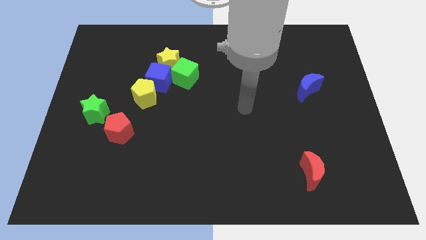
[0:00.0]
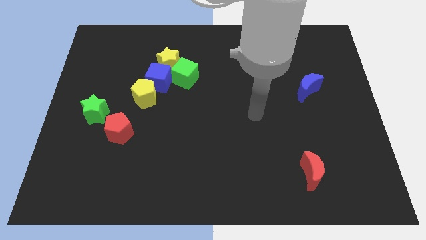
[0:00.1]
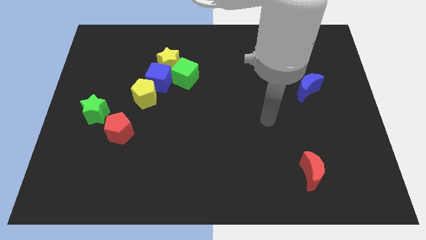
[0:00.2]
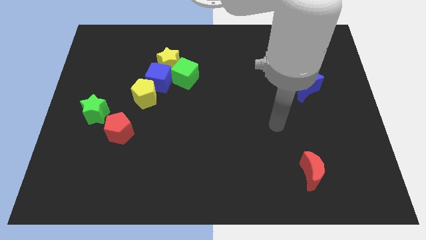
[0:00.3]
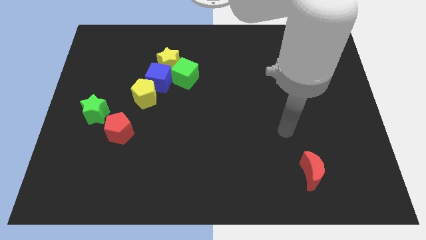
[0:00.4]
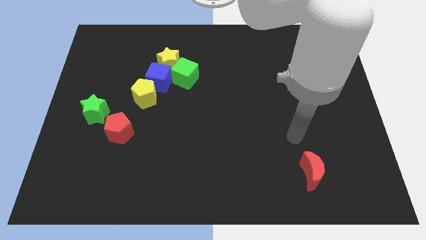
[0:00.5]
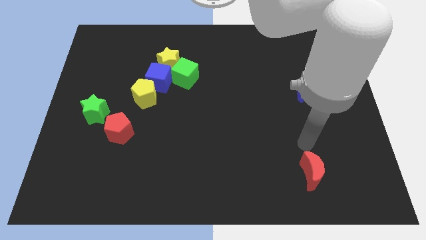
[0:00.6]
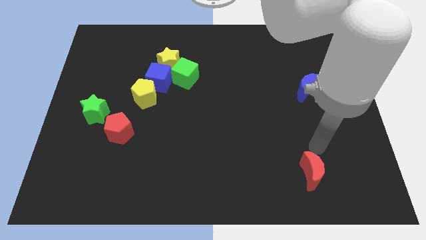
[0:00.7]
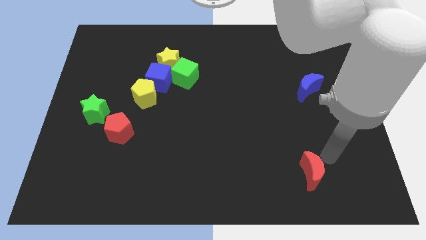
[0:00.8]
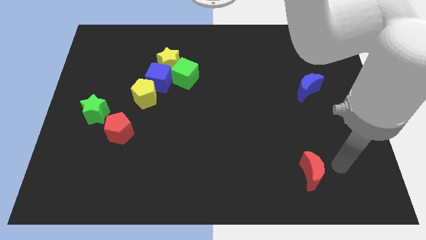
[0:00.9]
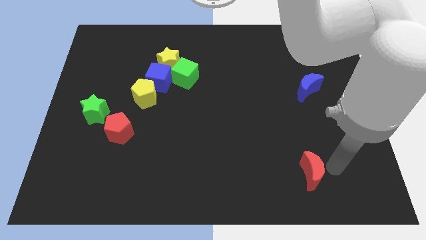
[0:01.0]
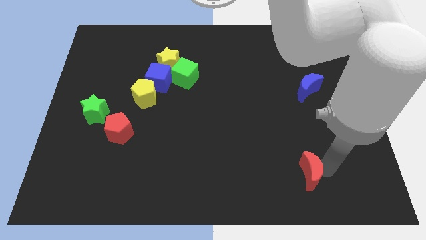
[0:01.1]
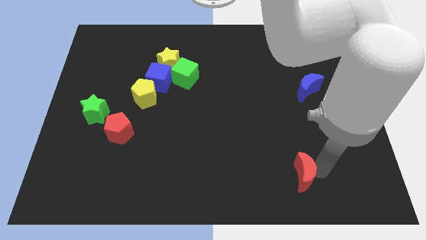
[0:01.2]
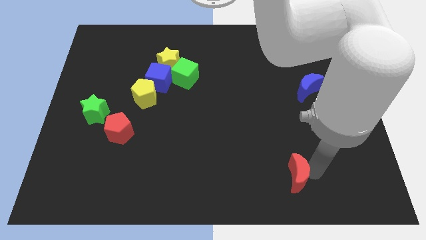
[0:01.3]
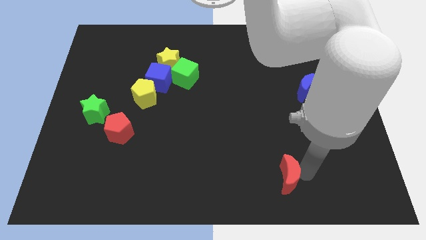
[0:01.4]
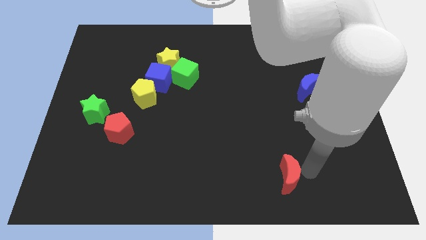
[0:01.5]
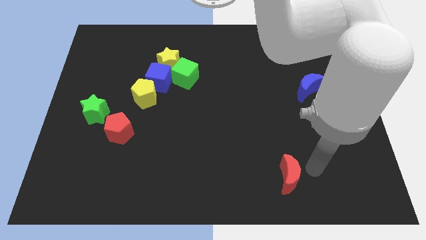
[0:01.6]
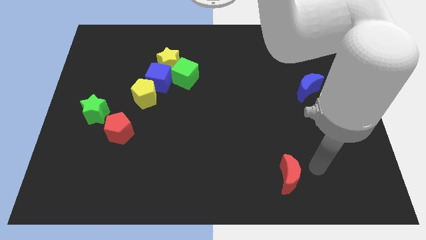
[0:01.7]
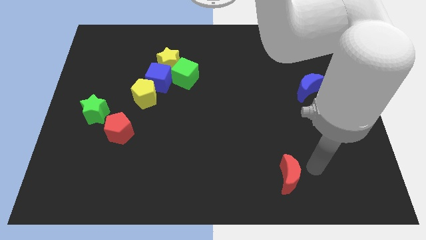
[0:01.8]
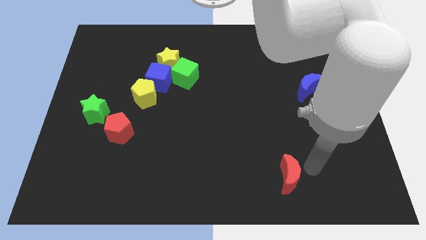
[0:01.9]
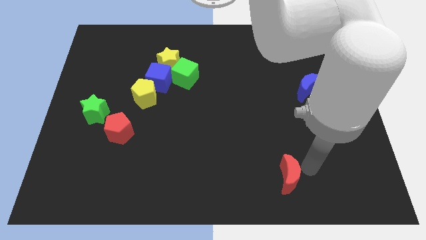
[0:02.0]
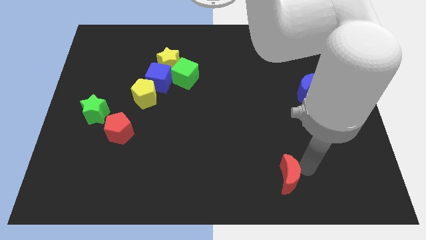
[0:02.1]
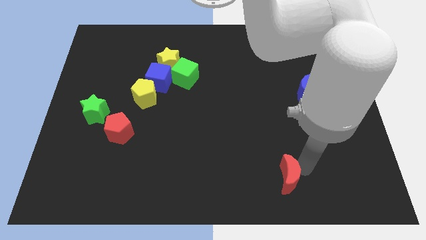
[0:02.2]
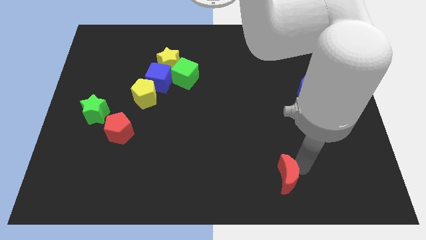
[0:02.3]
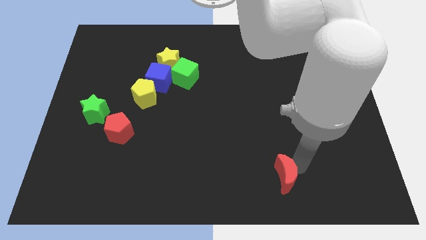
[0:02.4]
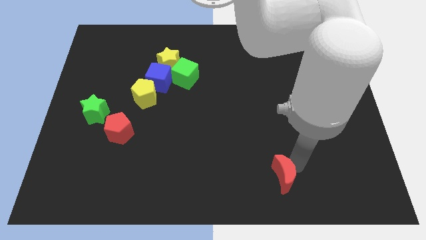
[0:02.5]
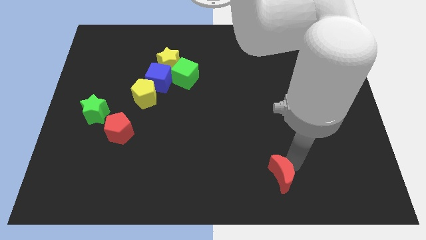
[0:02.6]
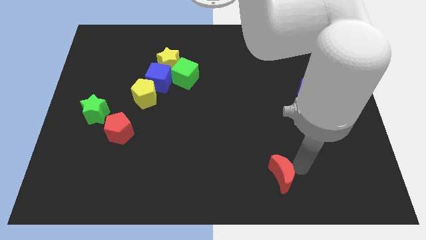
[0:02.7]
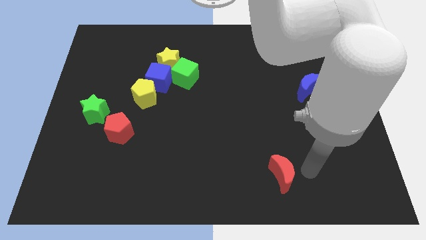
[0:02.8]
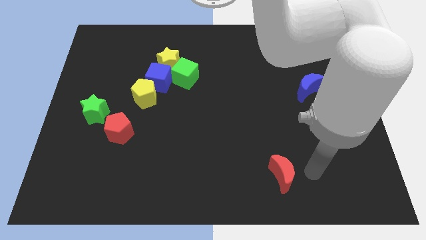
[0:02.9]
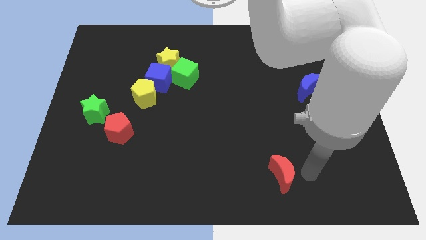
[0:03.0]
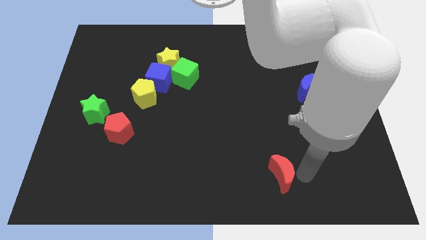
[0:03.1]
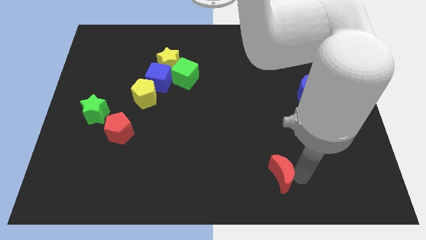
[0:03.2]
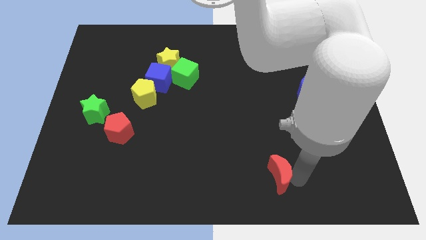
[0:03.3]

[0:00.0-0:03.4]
slide the red moon a bit left

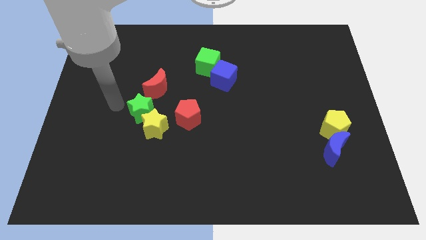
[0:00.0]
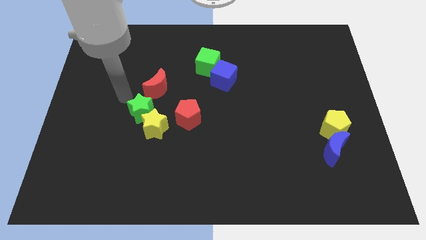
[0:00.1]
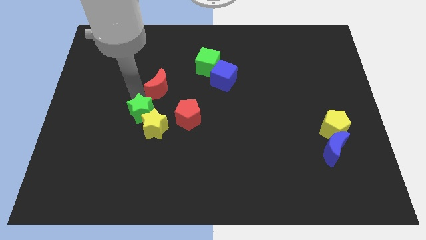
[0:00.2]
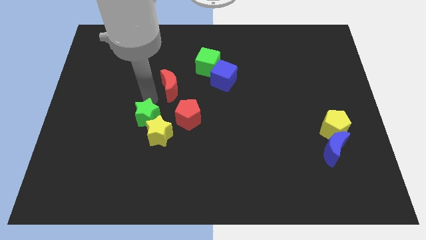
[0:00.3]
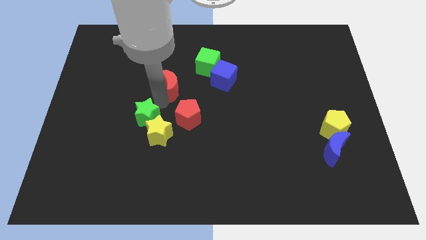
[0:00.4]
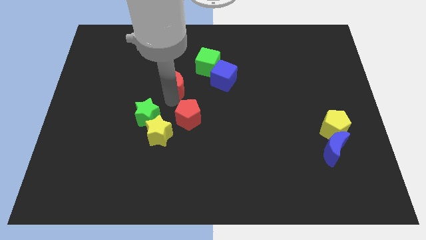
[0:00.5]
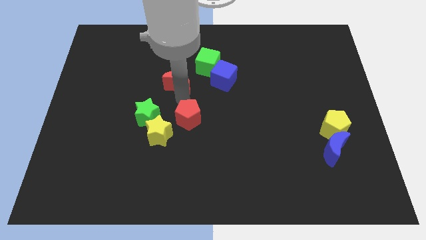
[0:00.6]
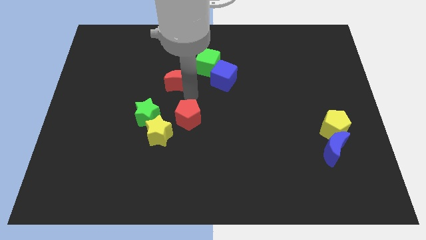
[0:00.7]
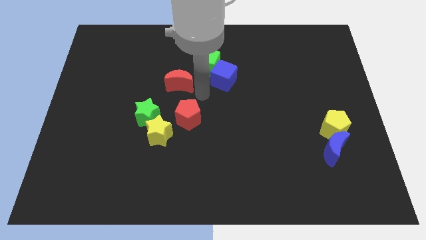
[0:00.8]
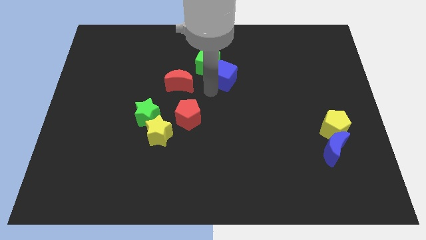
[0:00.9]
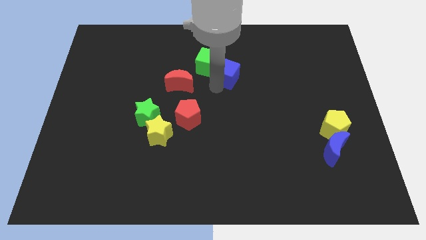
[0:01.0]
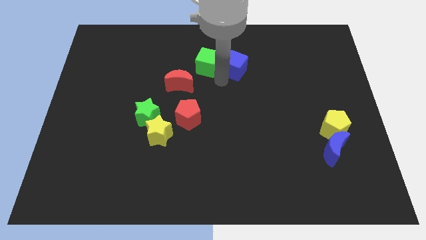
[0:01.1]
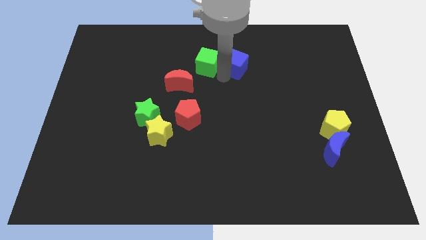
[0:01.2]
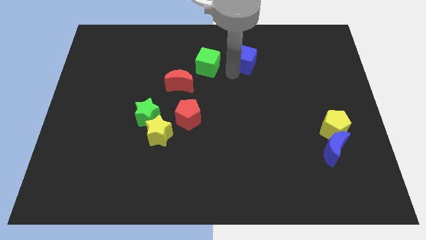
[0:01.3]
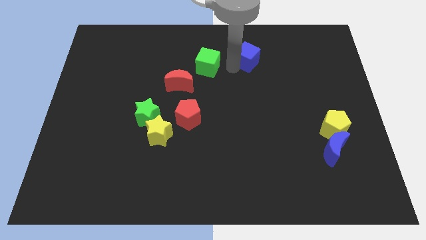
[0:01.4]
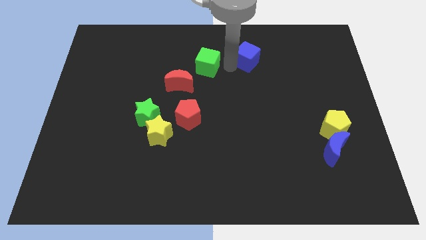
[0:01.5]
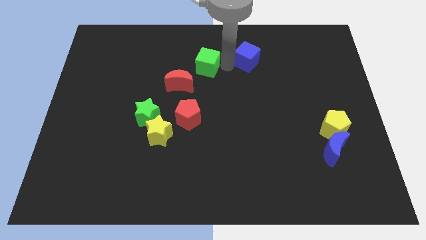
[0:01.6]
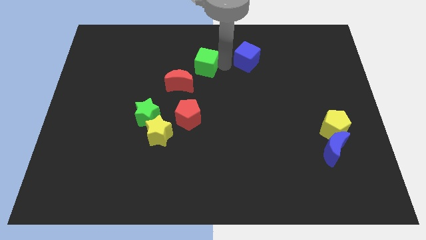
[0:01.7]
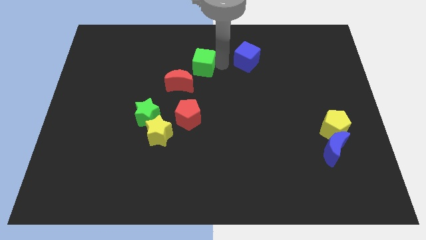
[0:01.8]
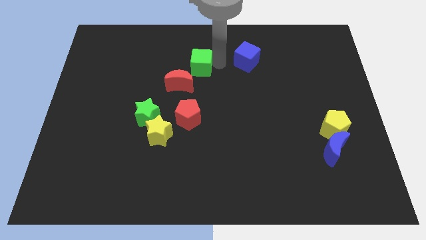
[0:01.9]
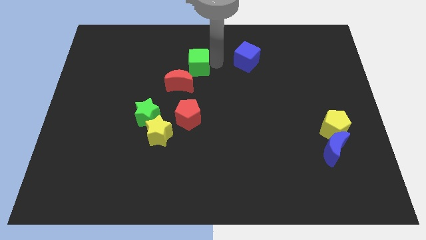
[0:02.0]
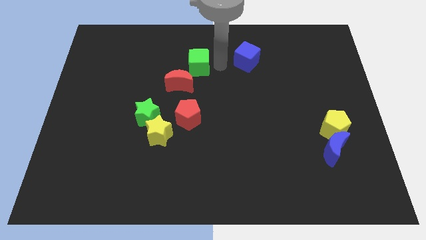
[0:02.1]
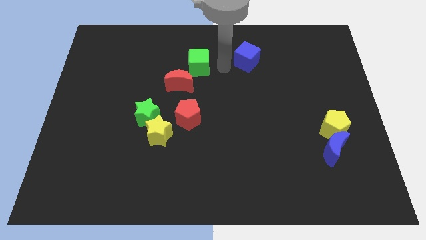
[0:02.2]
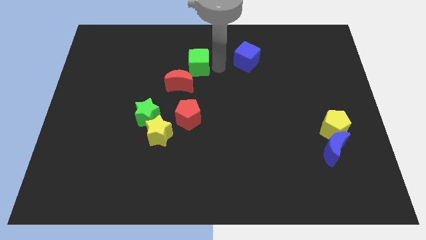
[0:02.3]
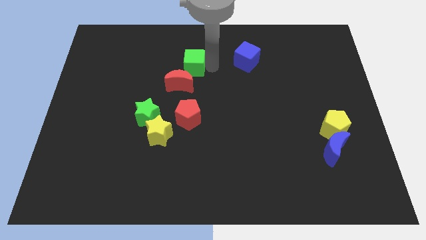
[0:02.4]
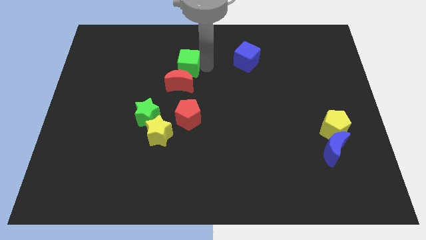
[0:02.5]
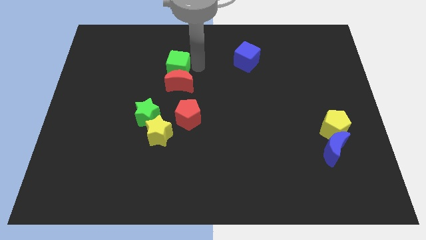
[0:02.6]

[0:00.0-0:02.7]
slightly slide the green cube to the left

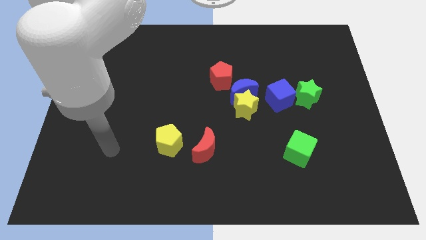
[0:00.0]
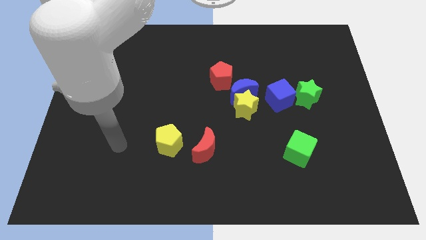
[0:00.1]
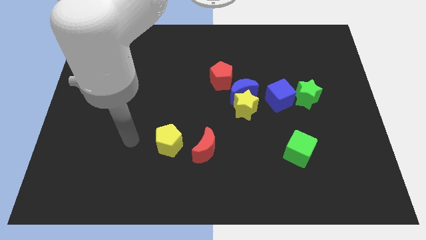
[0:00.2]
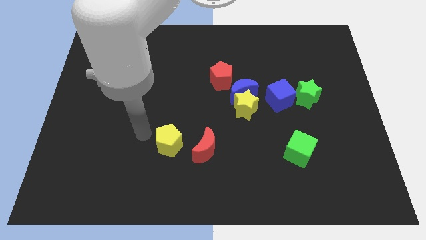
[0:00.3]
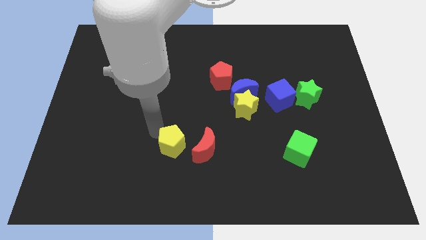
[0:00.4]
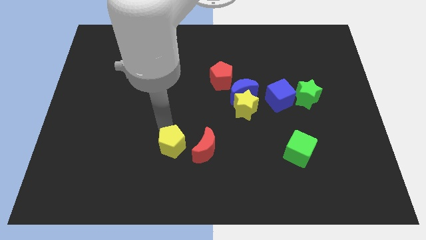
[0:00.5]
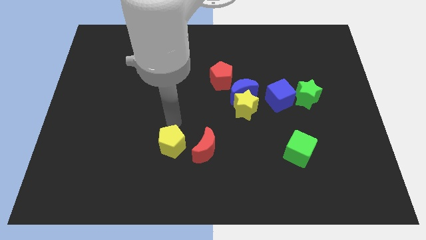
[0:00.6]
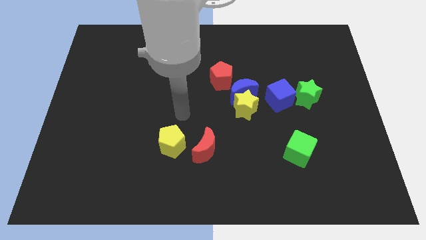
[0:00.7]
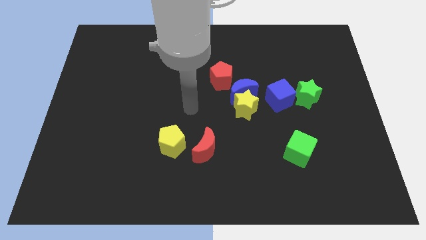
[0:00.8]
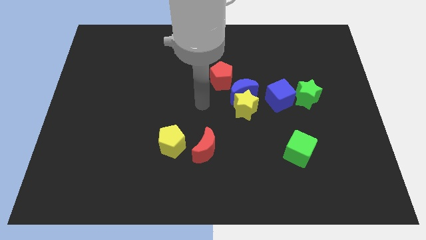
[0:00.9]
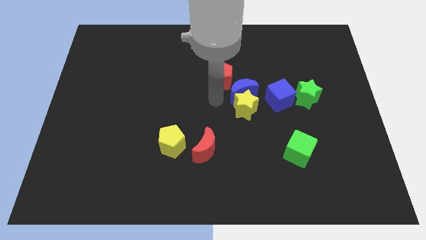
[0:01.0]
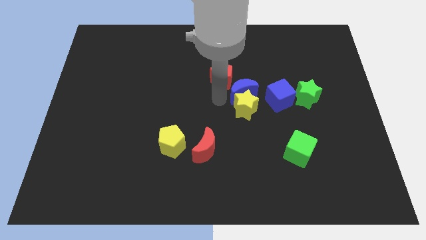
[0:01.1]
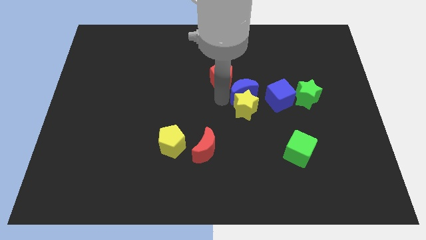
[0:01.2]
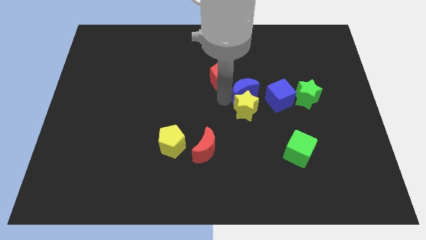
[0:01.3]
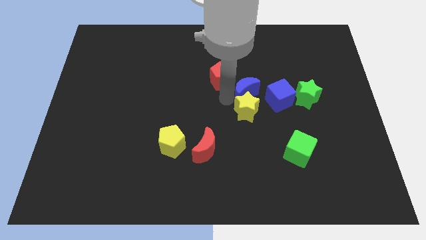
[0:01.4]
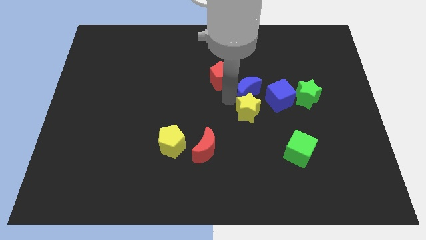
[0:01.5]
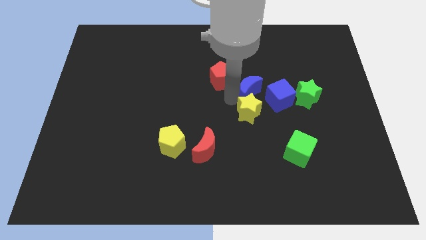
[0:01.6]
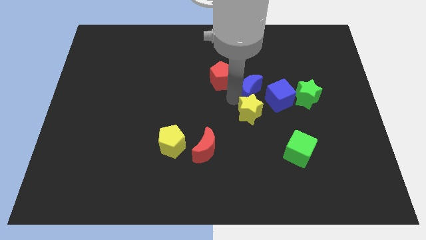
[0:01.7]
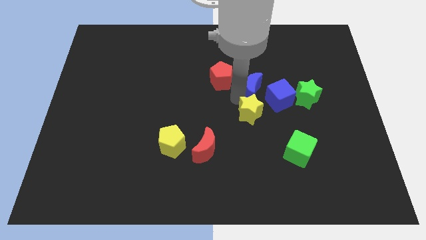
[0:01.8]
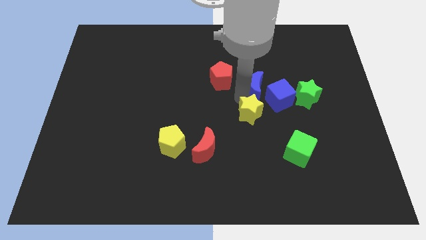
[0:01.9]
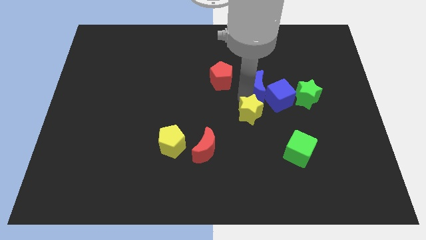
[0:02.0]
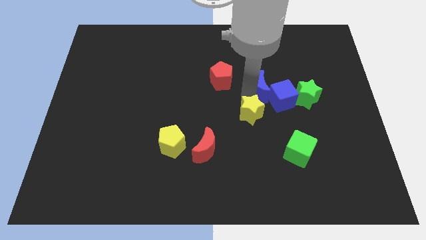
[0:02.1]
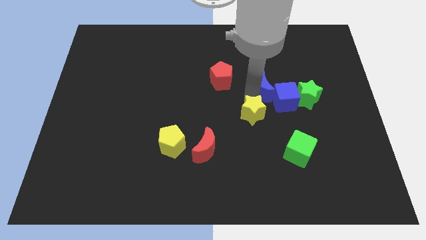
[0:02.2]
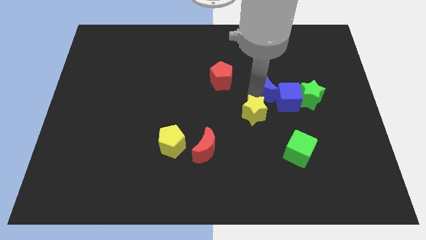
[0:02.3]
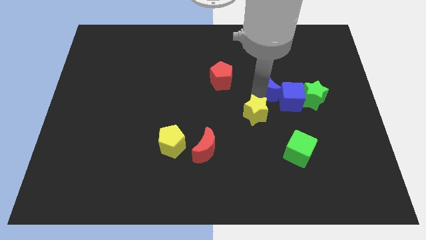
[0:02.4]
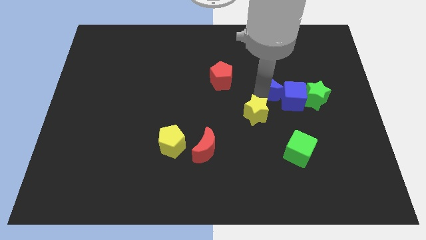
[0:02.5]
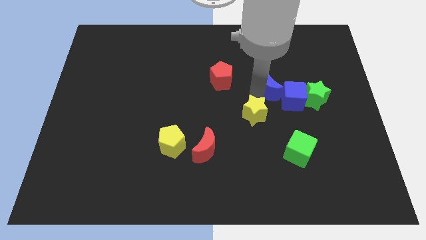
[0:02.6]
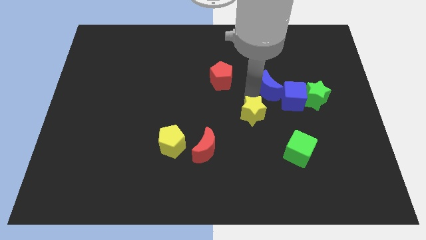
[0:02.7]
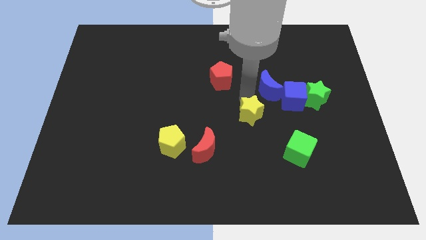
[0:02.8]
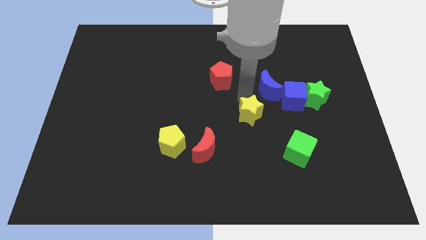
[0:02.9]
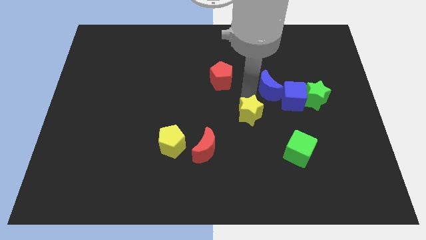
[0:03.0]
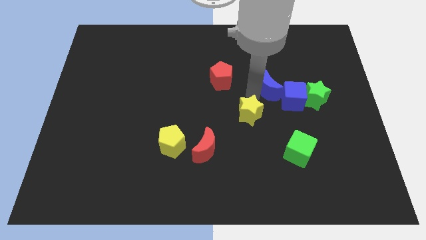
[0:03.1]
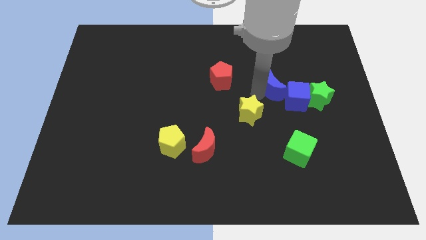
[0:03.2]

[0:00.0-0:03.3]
slightly push the blue moon right
